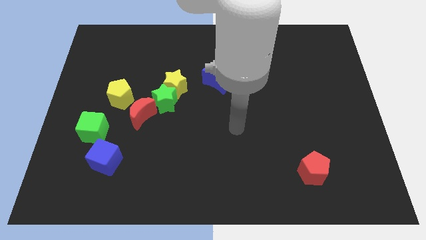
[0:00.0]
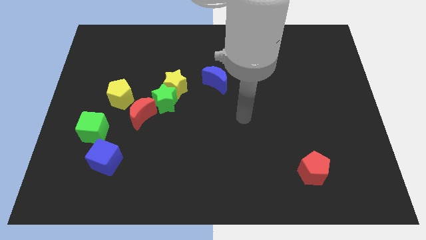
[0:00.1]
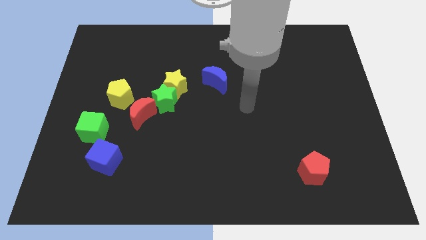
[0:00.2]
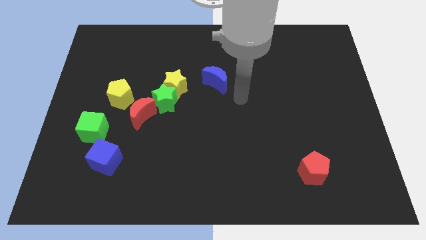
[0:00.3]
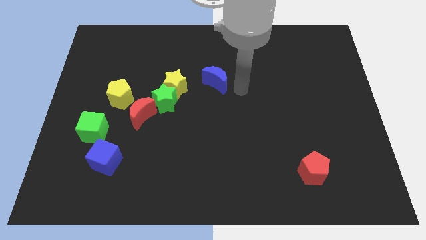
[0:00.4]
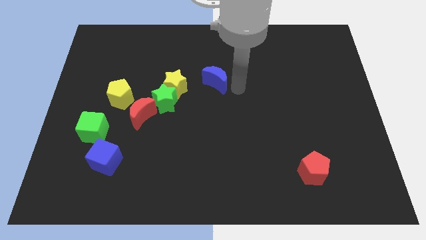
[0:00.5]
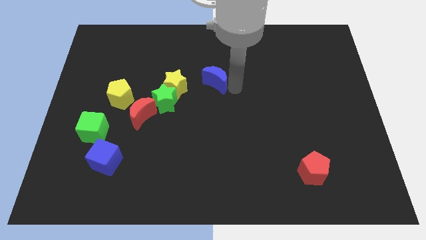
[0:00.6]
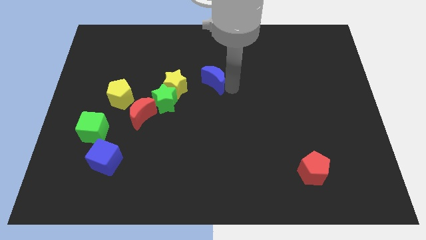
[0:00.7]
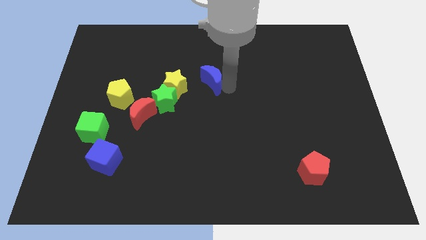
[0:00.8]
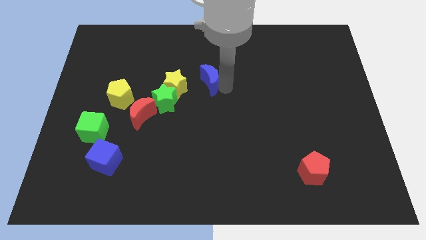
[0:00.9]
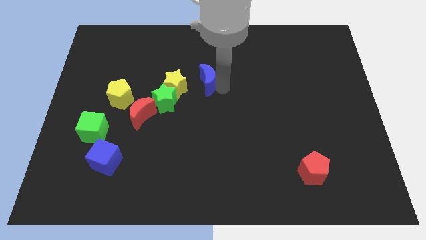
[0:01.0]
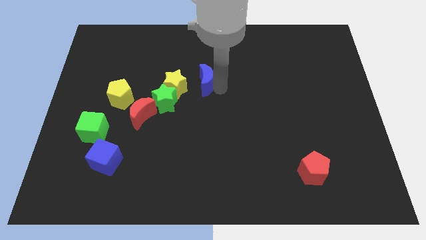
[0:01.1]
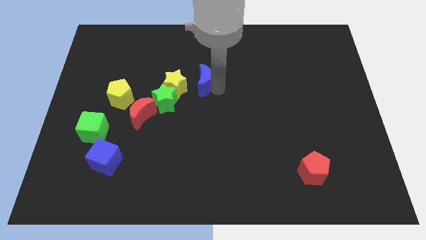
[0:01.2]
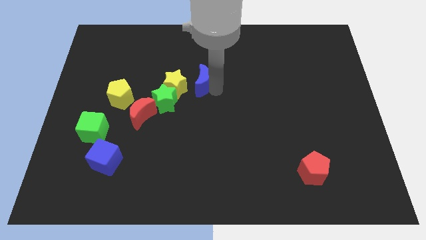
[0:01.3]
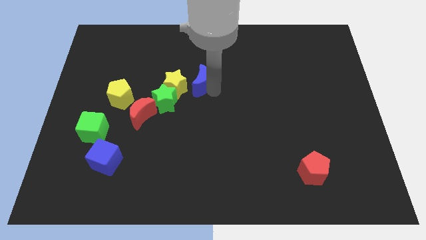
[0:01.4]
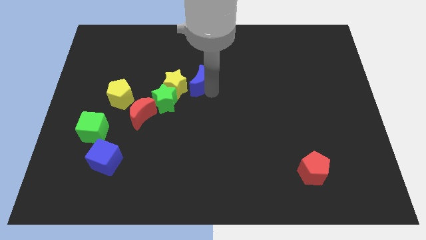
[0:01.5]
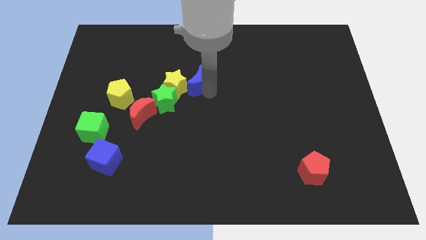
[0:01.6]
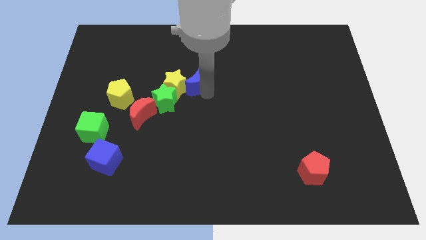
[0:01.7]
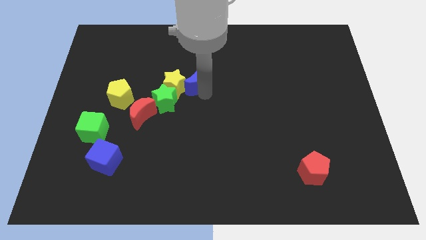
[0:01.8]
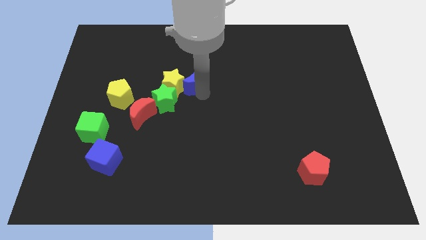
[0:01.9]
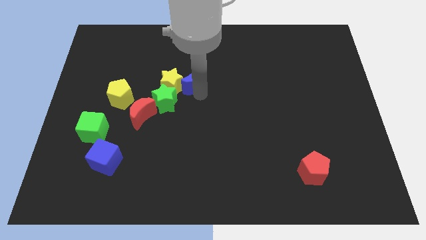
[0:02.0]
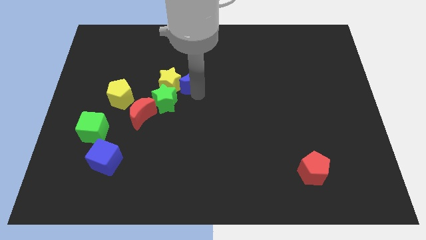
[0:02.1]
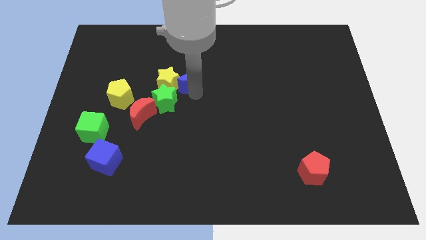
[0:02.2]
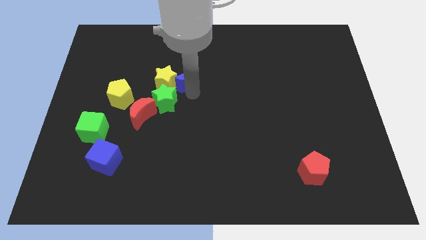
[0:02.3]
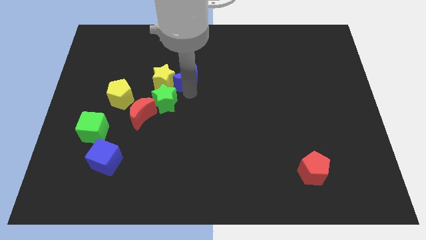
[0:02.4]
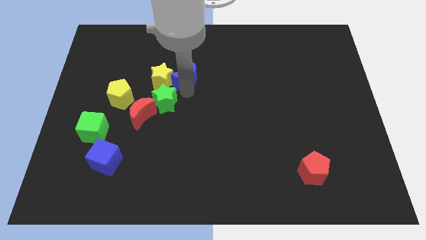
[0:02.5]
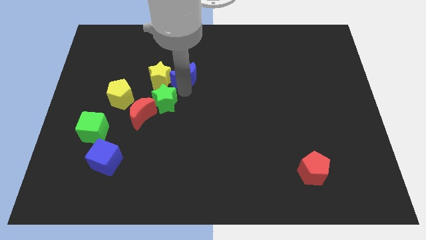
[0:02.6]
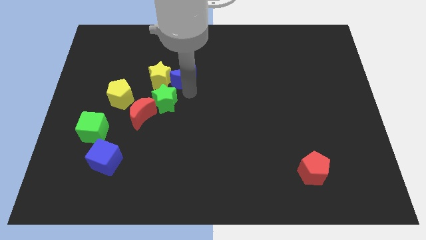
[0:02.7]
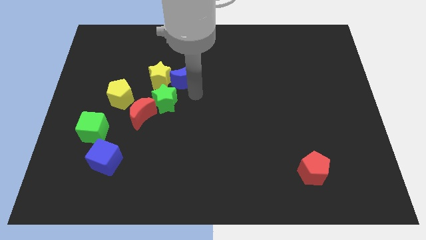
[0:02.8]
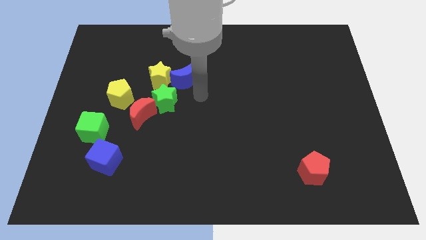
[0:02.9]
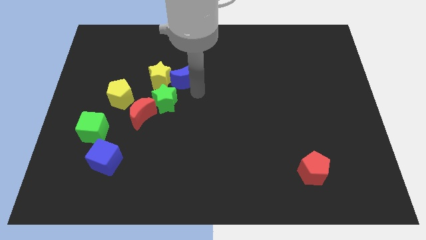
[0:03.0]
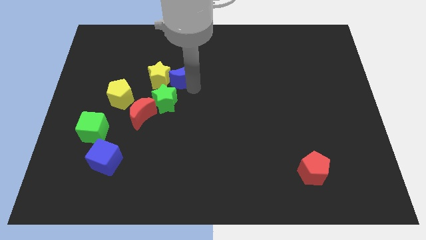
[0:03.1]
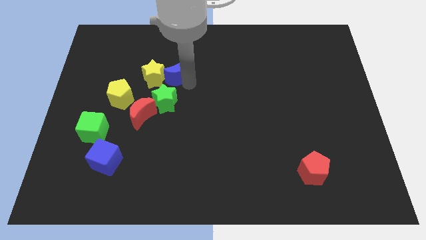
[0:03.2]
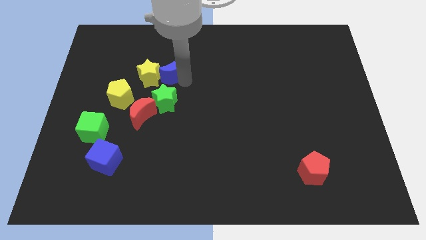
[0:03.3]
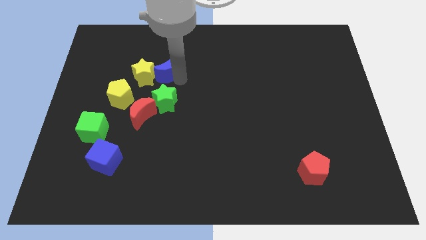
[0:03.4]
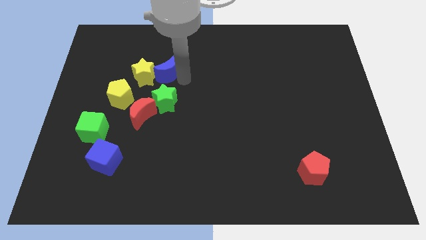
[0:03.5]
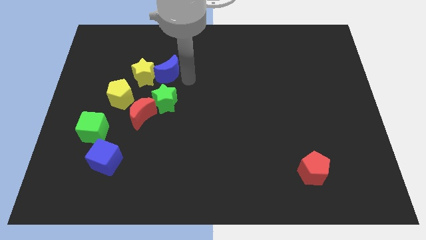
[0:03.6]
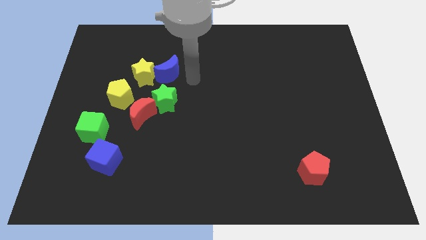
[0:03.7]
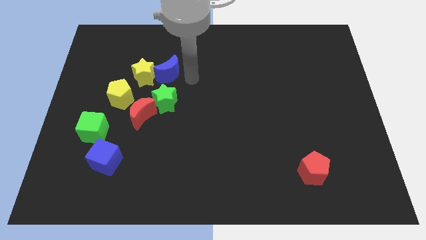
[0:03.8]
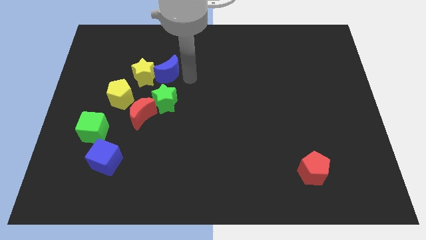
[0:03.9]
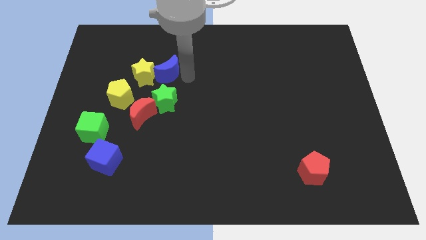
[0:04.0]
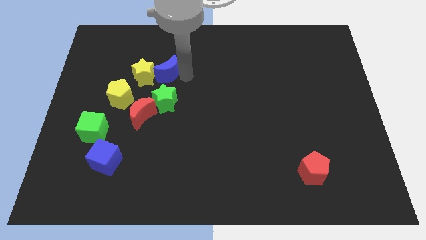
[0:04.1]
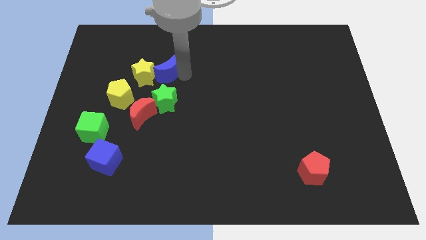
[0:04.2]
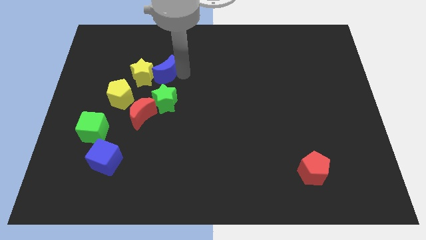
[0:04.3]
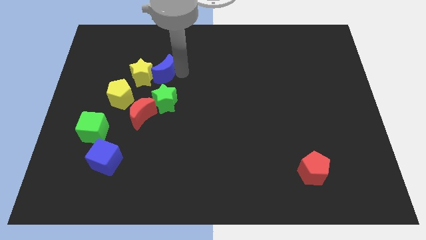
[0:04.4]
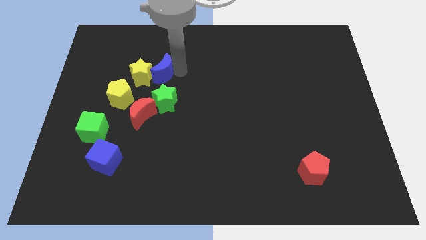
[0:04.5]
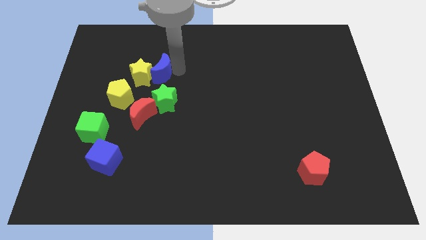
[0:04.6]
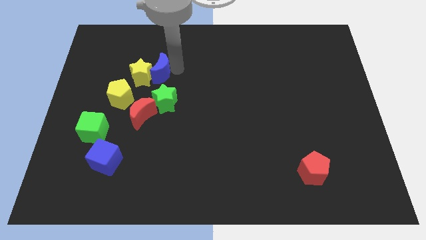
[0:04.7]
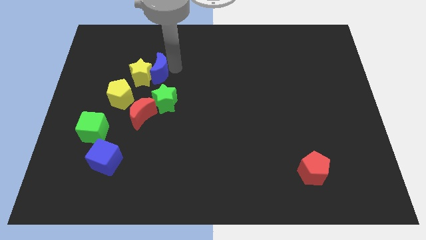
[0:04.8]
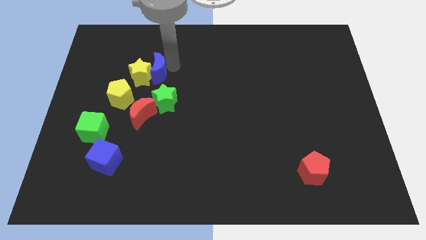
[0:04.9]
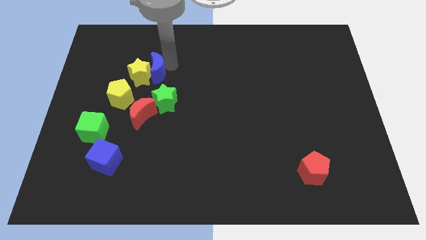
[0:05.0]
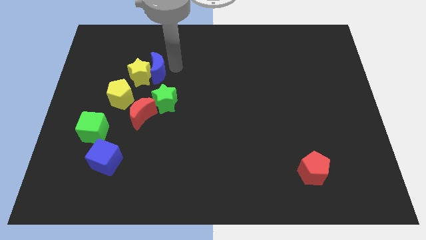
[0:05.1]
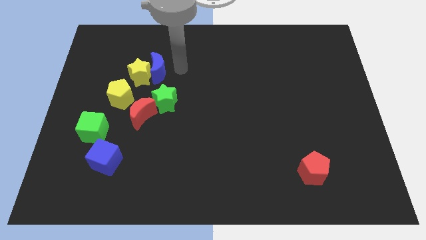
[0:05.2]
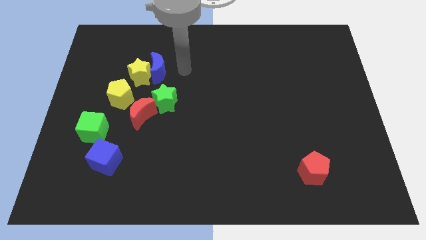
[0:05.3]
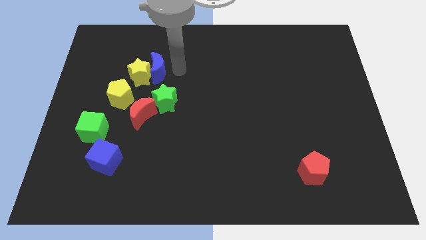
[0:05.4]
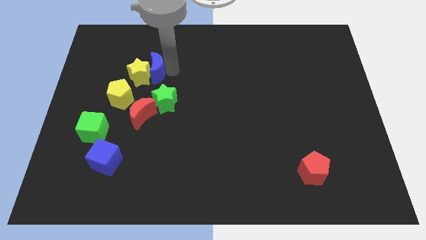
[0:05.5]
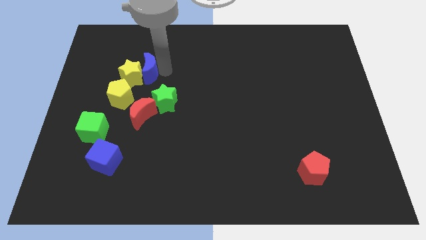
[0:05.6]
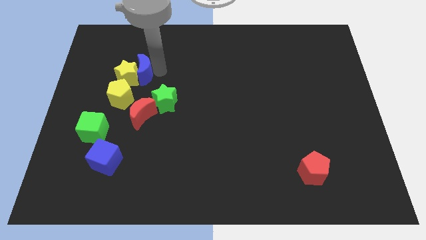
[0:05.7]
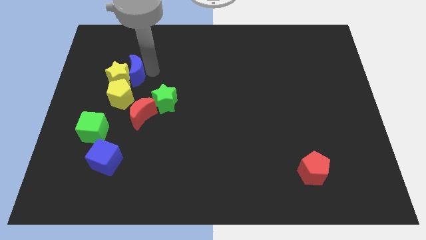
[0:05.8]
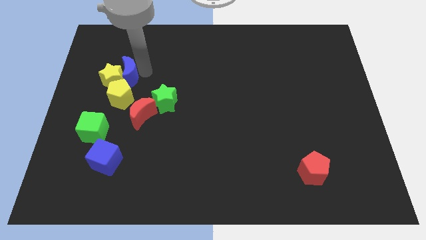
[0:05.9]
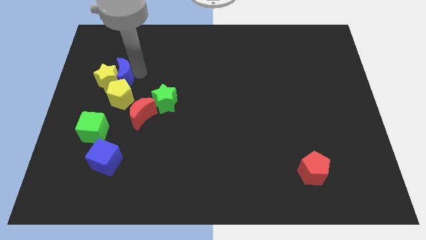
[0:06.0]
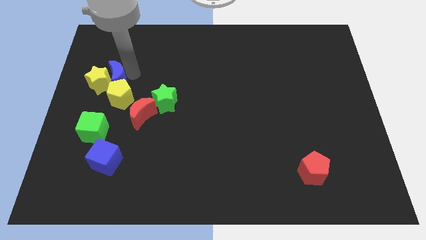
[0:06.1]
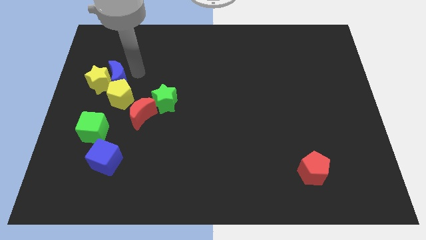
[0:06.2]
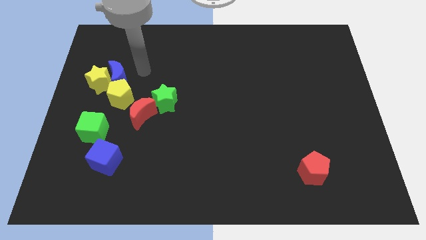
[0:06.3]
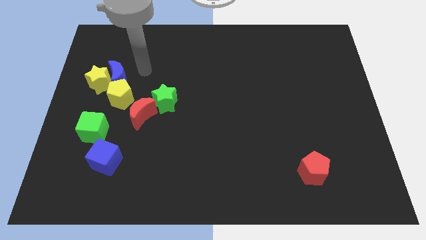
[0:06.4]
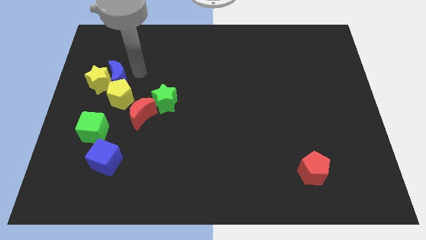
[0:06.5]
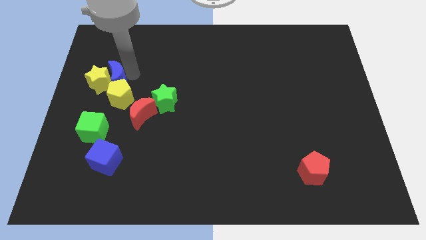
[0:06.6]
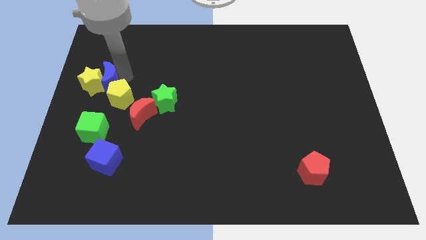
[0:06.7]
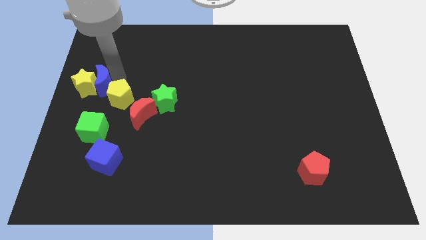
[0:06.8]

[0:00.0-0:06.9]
slide the blue moon to the left side of the board
